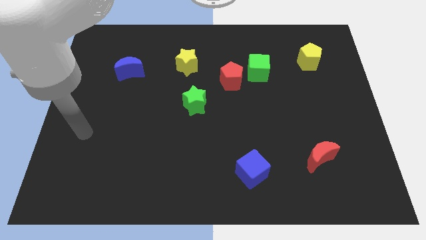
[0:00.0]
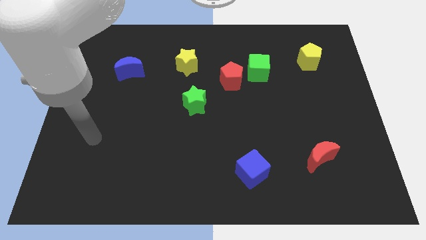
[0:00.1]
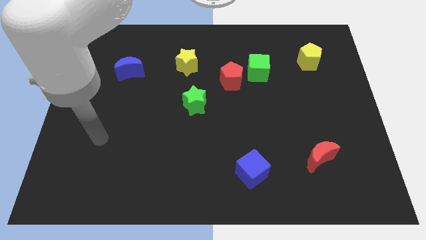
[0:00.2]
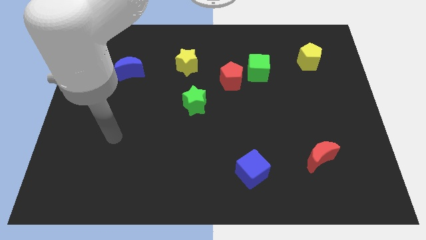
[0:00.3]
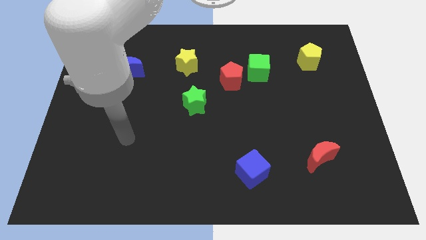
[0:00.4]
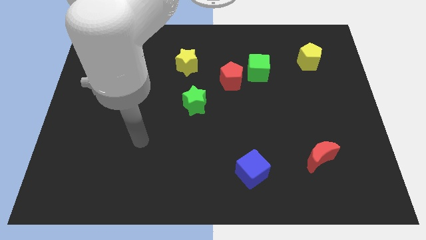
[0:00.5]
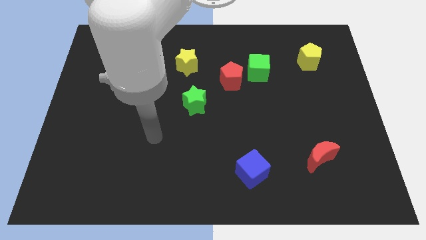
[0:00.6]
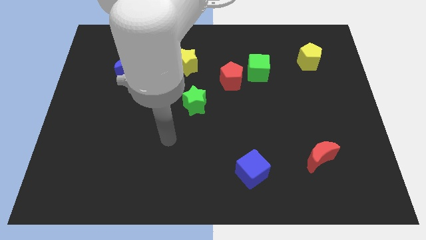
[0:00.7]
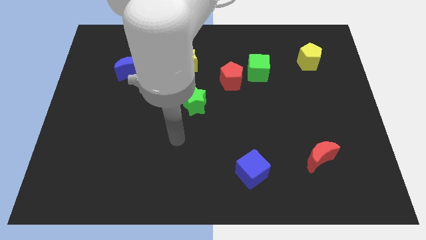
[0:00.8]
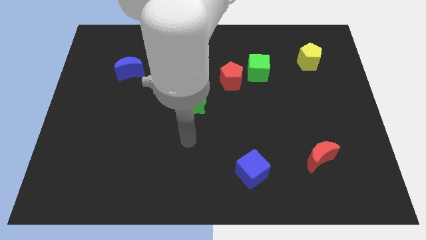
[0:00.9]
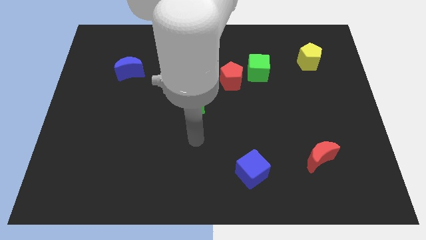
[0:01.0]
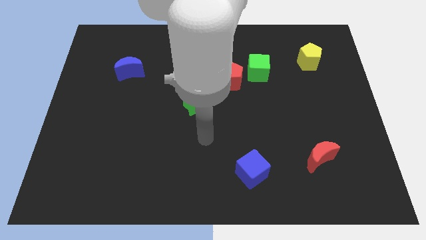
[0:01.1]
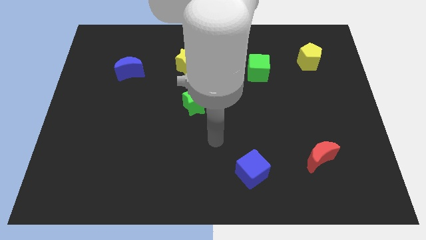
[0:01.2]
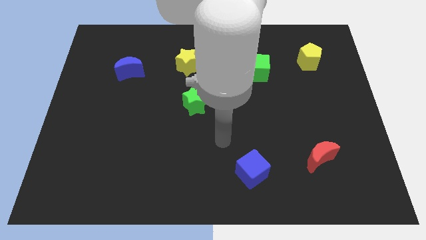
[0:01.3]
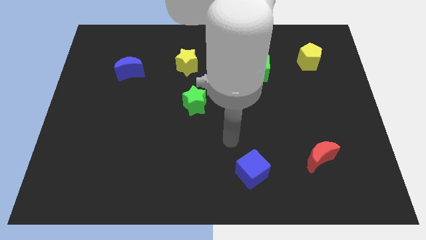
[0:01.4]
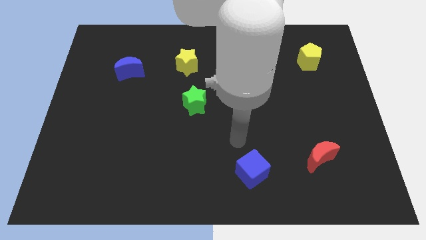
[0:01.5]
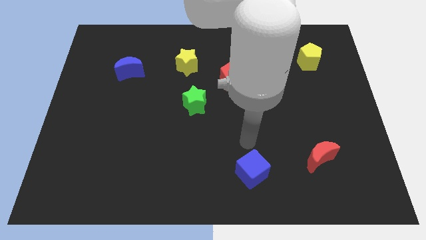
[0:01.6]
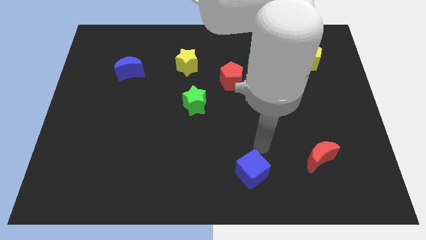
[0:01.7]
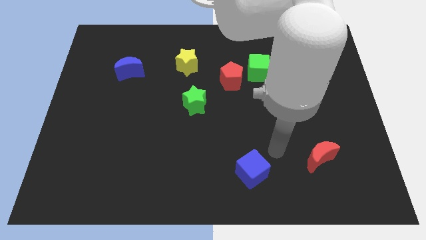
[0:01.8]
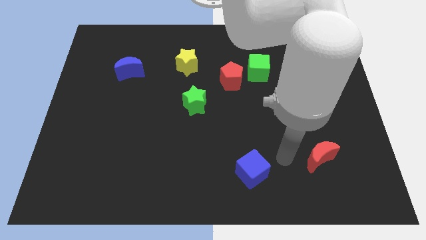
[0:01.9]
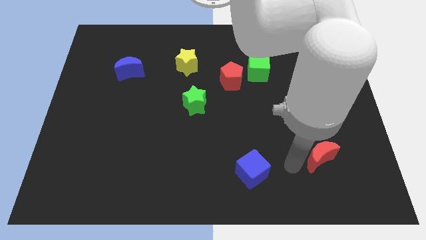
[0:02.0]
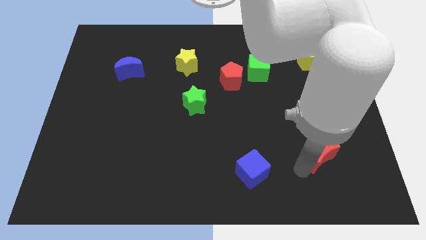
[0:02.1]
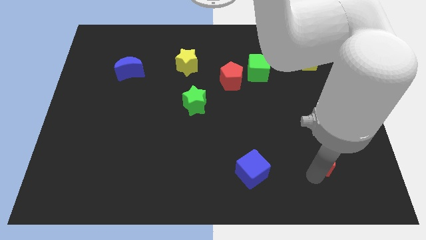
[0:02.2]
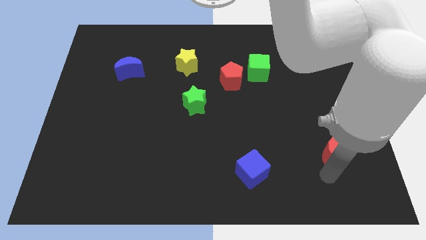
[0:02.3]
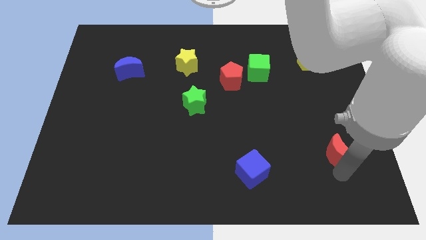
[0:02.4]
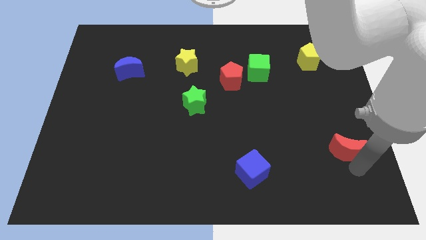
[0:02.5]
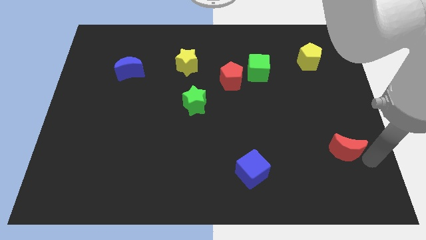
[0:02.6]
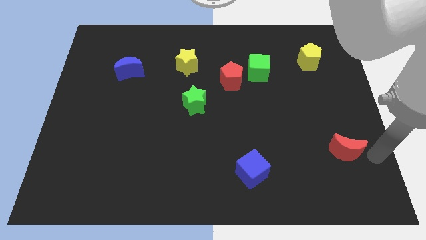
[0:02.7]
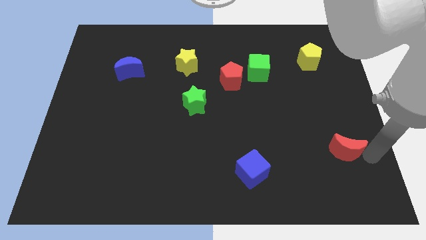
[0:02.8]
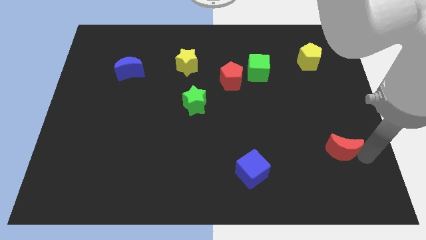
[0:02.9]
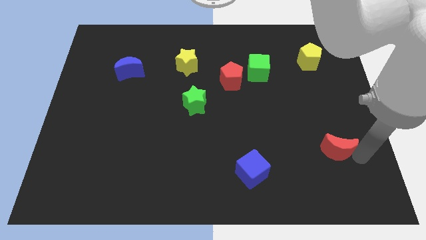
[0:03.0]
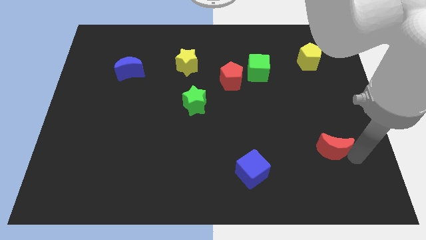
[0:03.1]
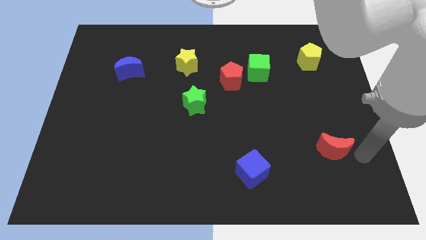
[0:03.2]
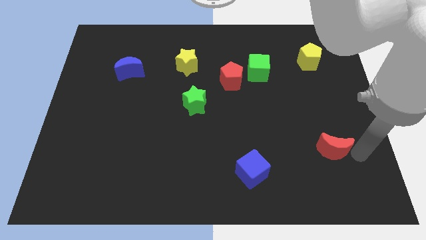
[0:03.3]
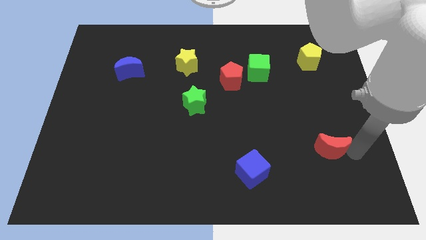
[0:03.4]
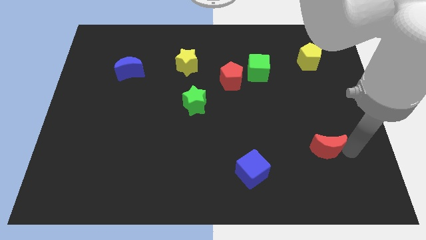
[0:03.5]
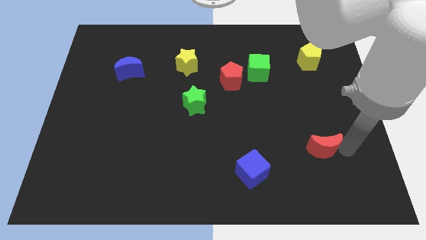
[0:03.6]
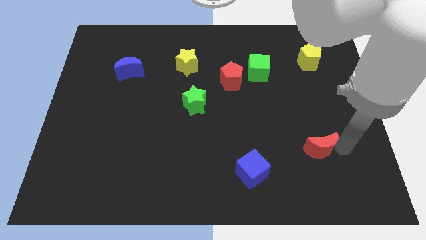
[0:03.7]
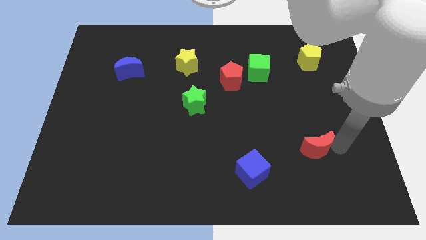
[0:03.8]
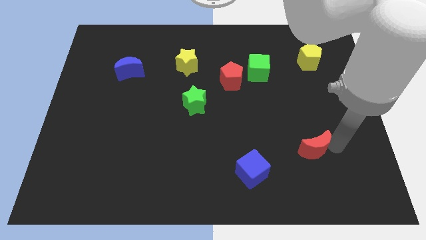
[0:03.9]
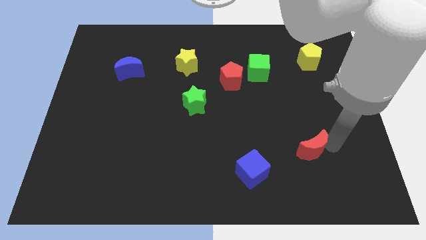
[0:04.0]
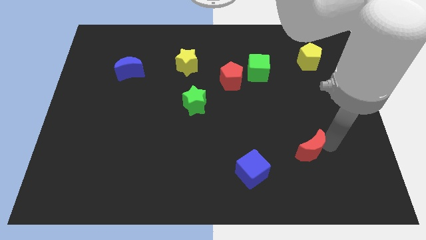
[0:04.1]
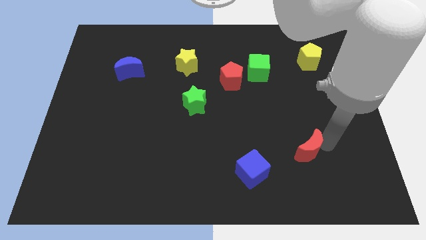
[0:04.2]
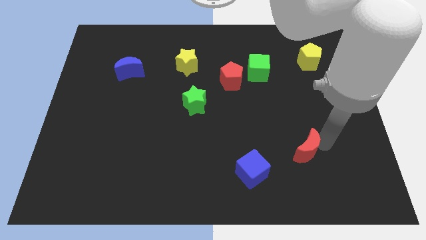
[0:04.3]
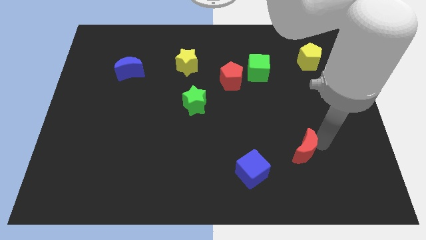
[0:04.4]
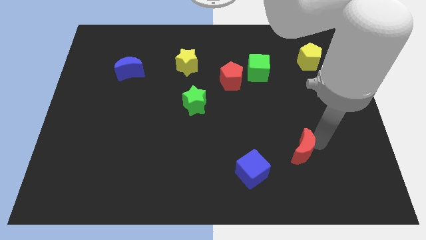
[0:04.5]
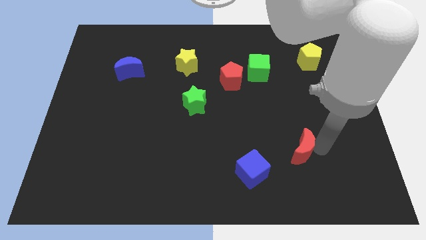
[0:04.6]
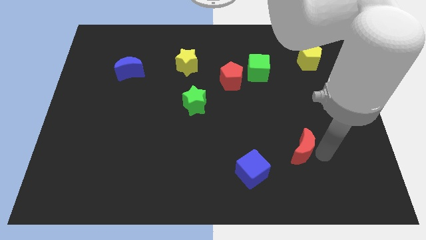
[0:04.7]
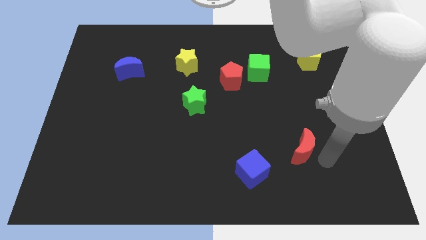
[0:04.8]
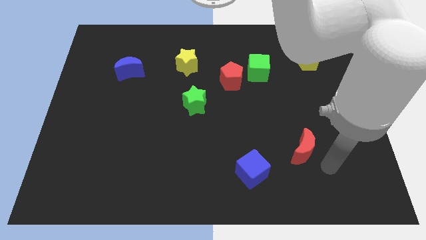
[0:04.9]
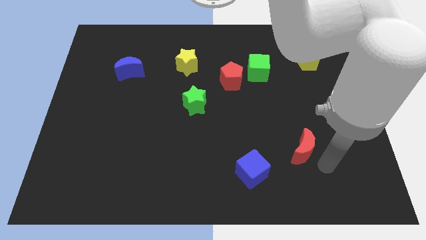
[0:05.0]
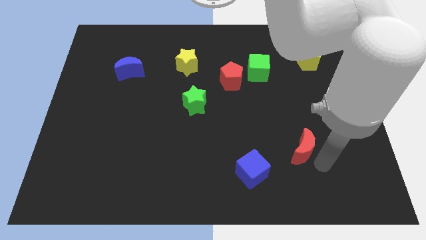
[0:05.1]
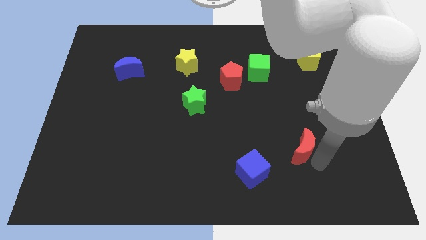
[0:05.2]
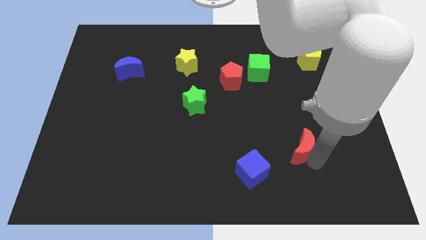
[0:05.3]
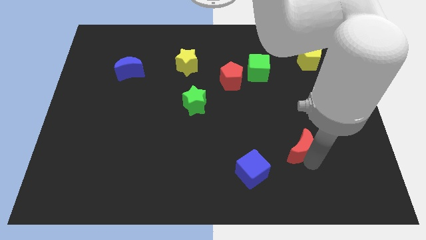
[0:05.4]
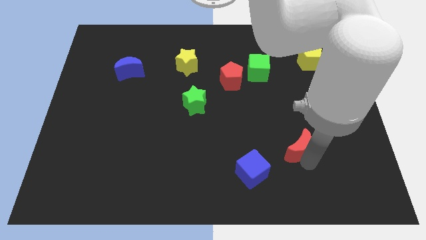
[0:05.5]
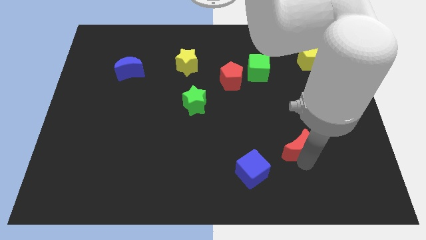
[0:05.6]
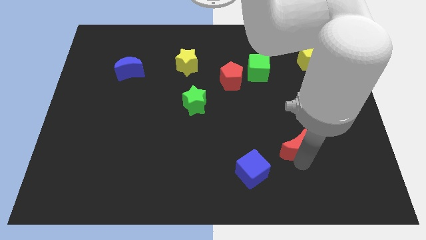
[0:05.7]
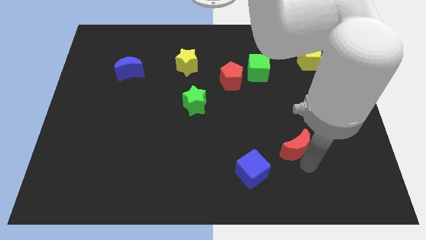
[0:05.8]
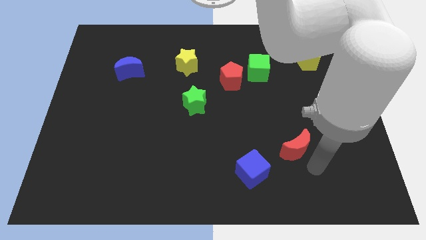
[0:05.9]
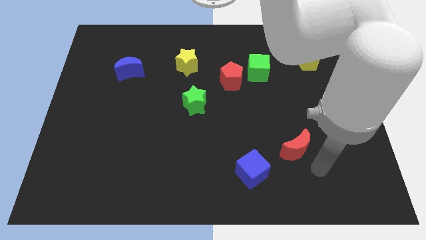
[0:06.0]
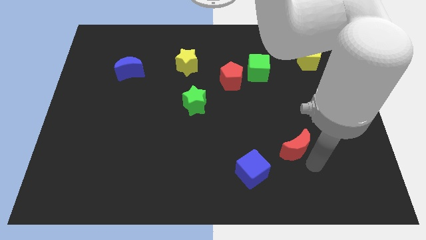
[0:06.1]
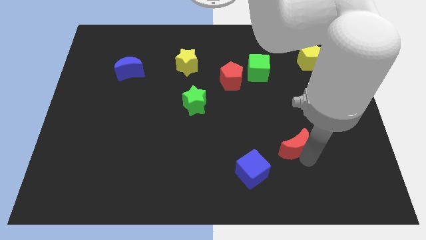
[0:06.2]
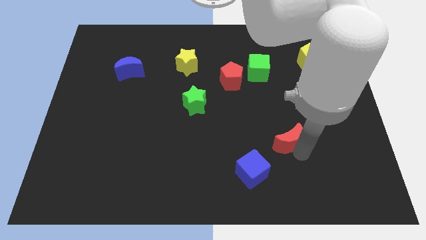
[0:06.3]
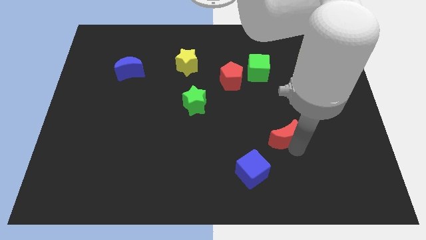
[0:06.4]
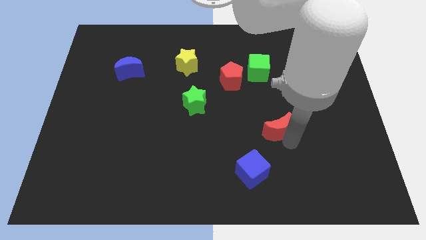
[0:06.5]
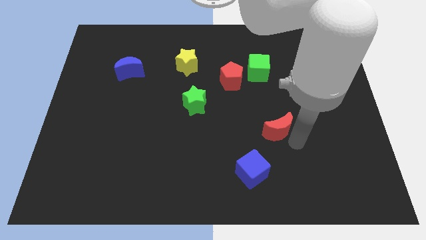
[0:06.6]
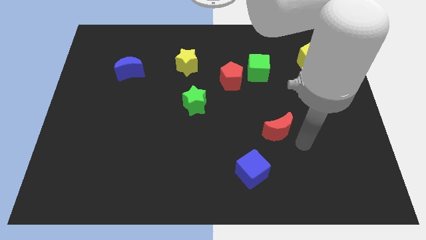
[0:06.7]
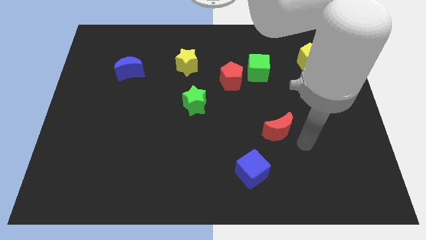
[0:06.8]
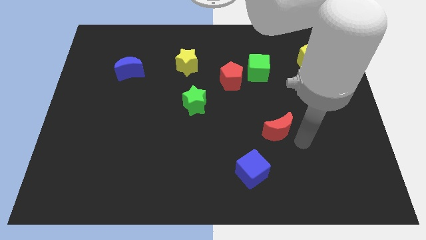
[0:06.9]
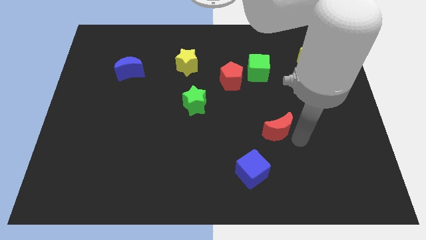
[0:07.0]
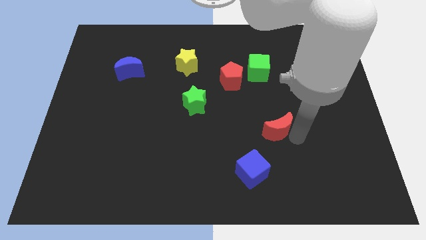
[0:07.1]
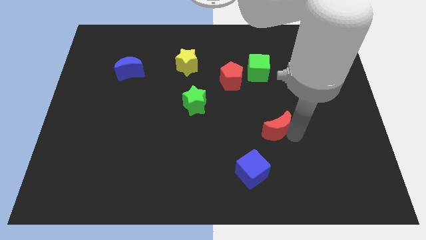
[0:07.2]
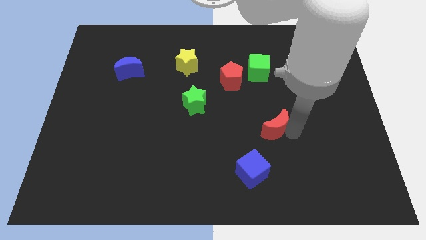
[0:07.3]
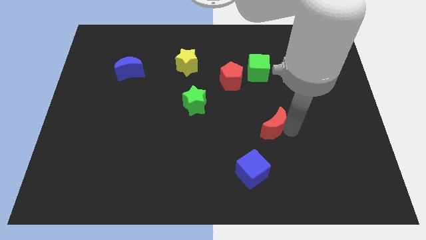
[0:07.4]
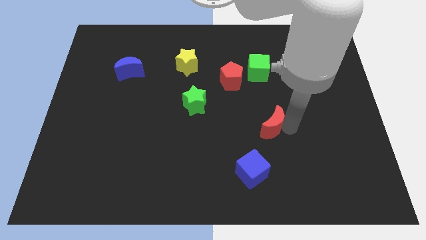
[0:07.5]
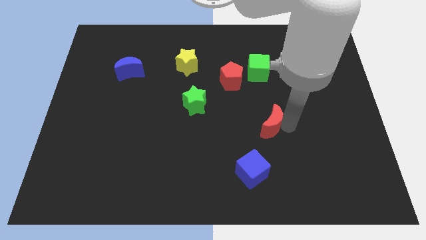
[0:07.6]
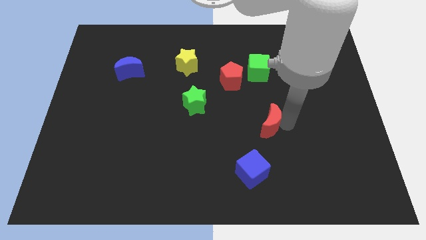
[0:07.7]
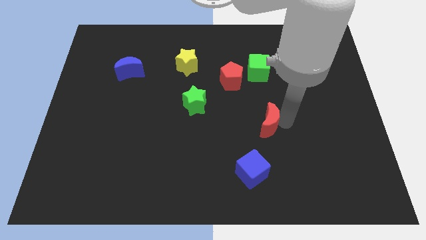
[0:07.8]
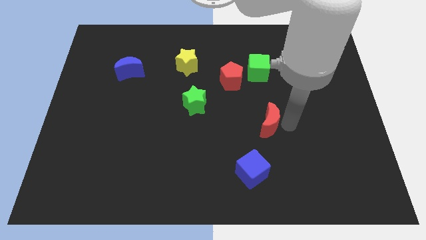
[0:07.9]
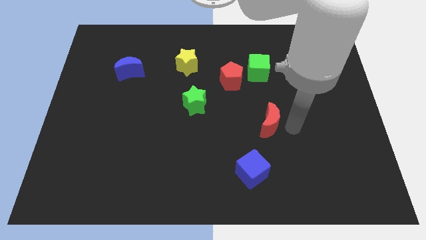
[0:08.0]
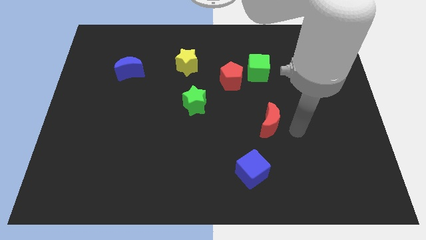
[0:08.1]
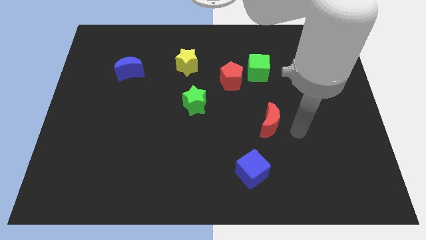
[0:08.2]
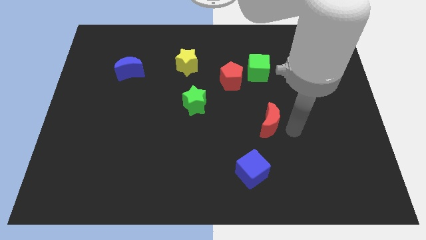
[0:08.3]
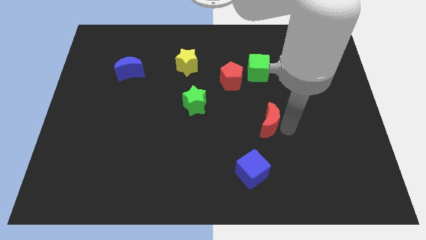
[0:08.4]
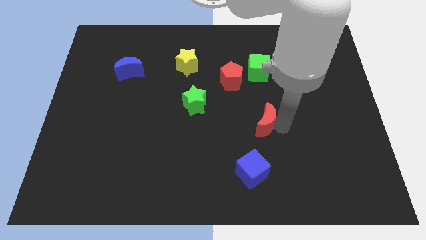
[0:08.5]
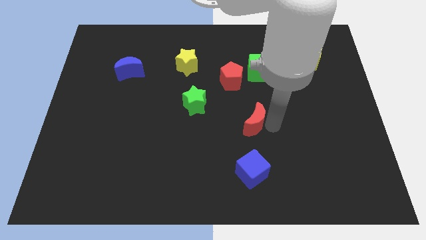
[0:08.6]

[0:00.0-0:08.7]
slide the red moon to the center
